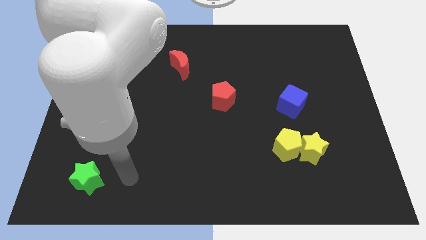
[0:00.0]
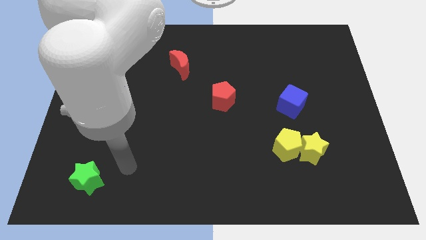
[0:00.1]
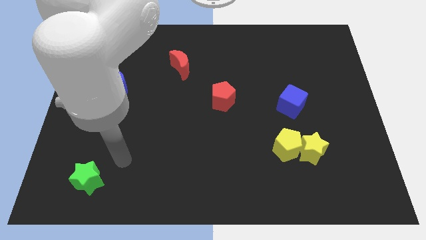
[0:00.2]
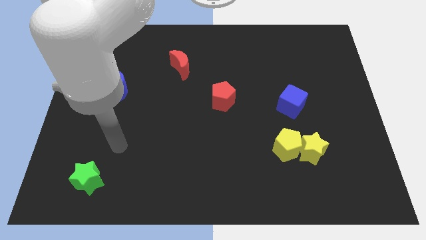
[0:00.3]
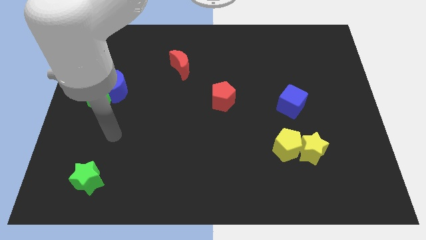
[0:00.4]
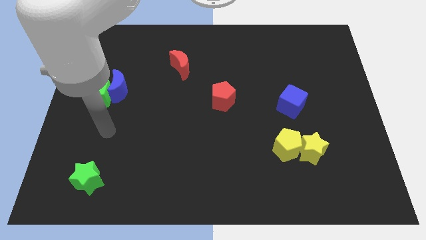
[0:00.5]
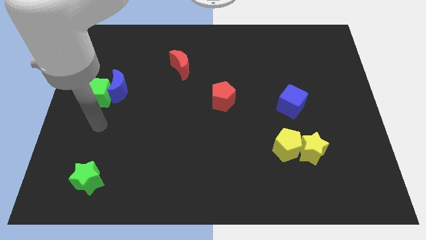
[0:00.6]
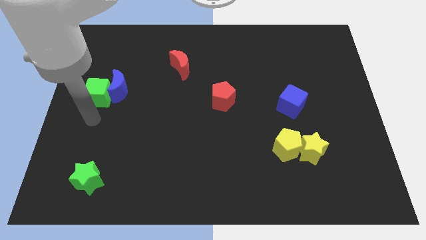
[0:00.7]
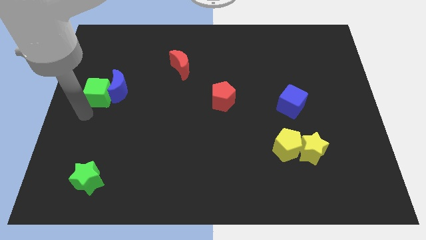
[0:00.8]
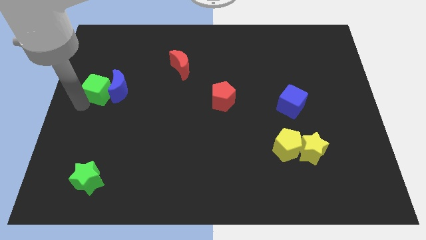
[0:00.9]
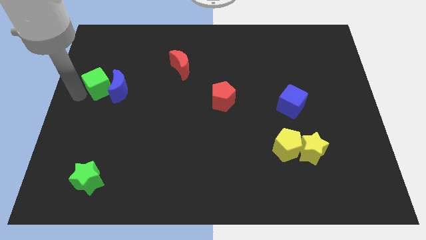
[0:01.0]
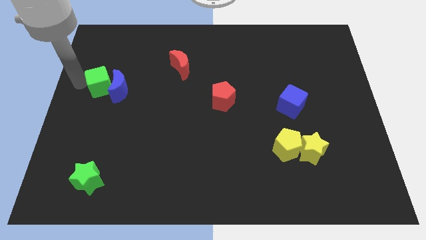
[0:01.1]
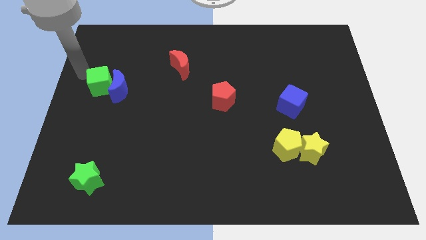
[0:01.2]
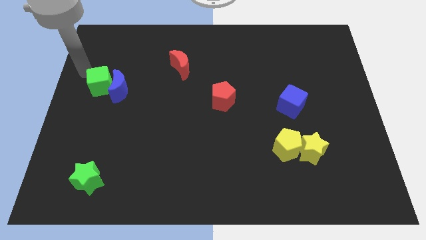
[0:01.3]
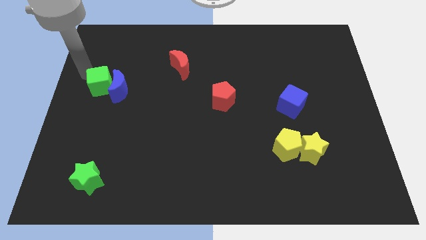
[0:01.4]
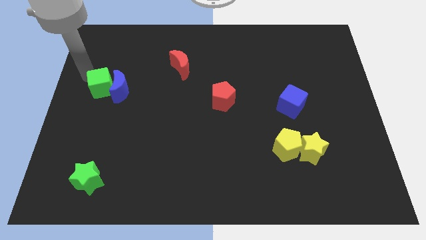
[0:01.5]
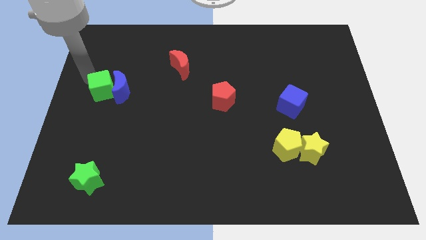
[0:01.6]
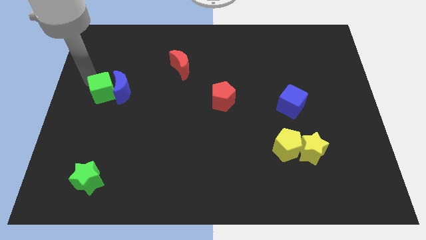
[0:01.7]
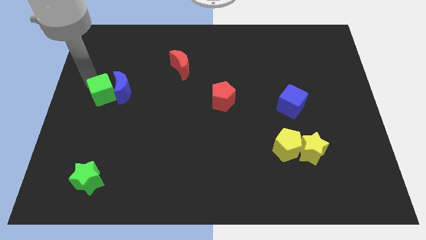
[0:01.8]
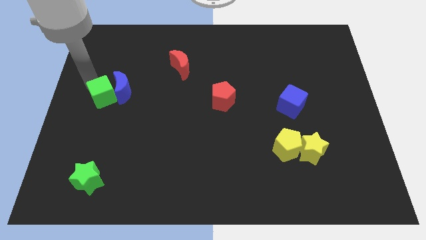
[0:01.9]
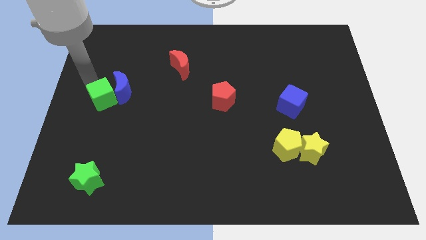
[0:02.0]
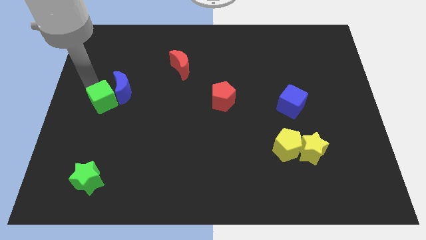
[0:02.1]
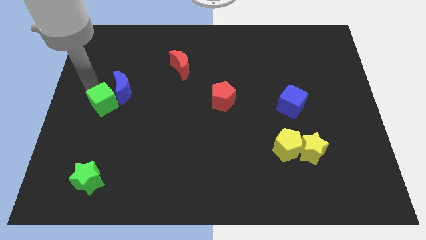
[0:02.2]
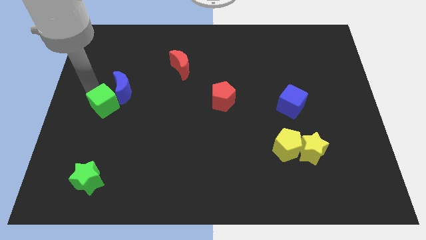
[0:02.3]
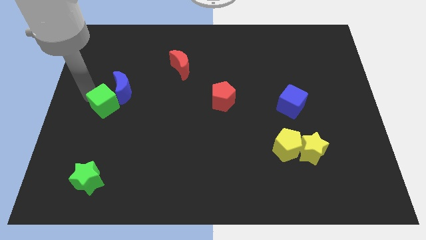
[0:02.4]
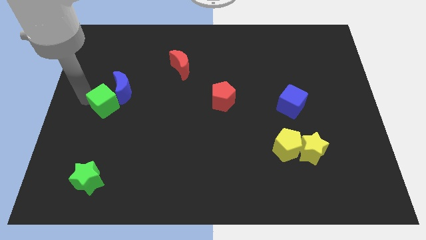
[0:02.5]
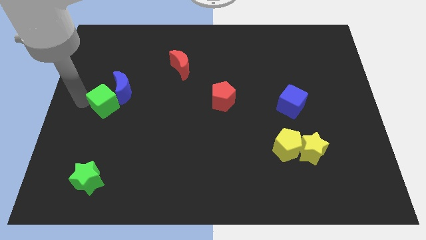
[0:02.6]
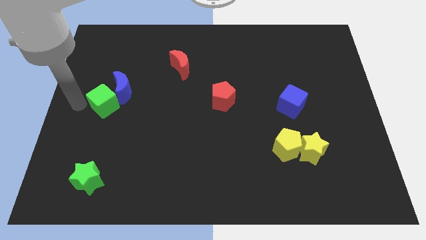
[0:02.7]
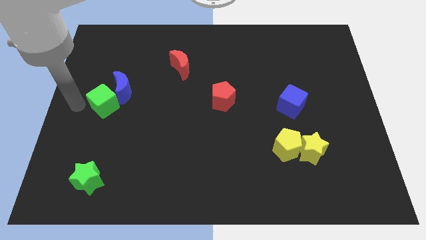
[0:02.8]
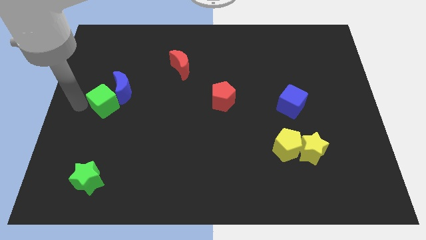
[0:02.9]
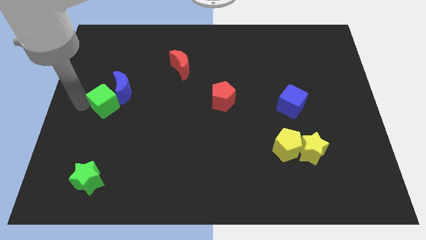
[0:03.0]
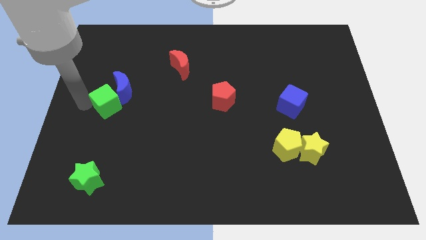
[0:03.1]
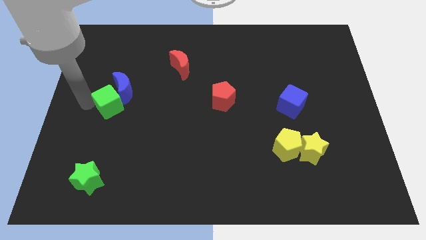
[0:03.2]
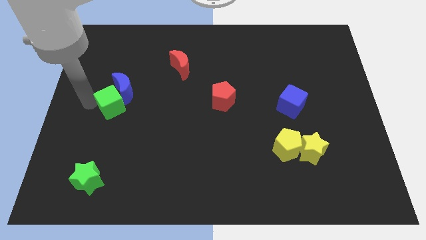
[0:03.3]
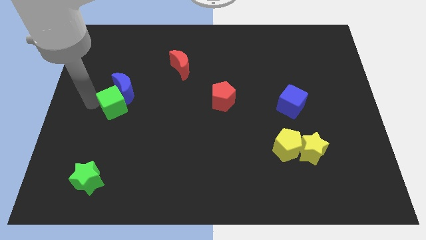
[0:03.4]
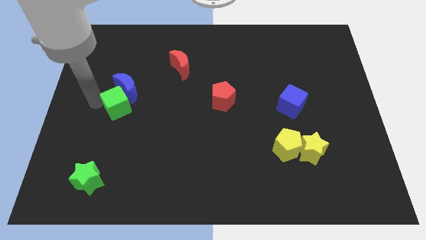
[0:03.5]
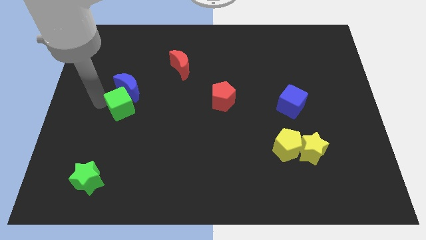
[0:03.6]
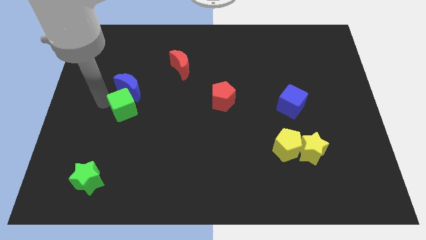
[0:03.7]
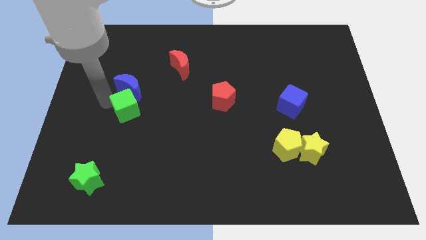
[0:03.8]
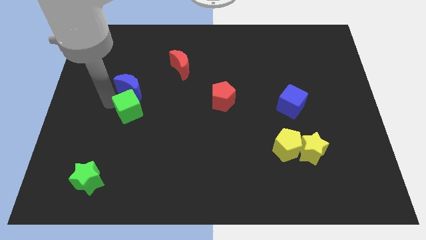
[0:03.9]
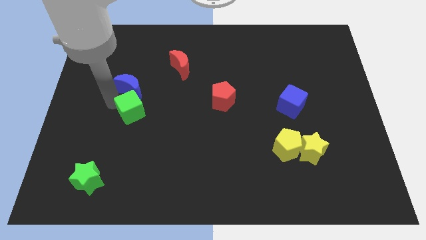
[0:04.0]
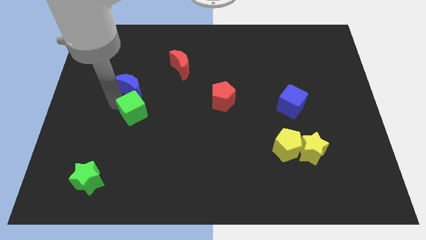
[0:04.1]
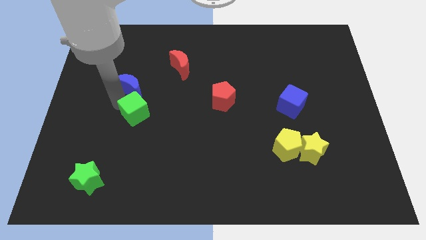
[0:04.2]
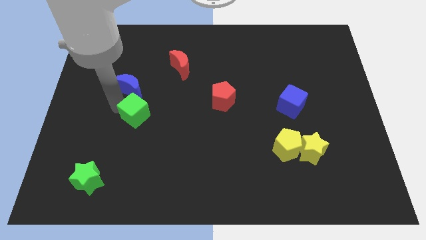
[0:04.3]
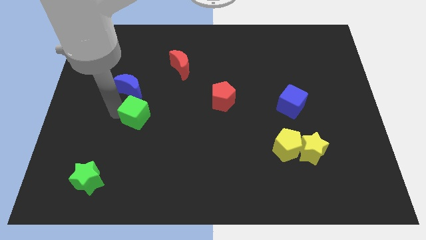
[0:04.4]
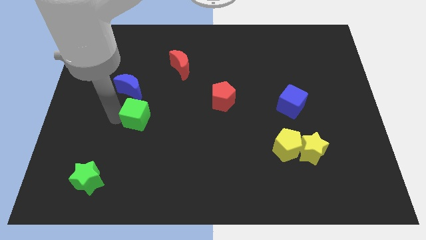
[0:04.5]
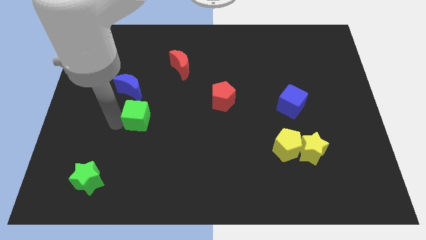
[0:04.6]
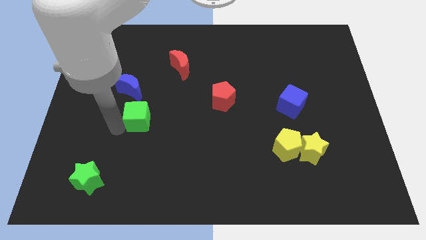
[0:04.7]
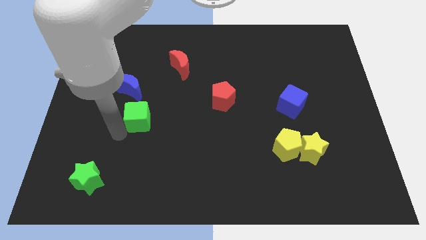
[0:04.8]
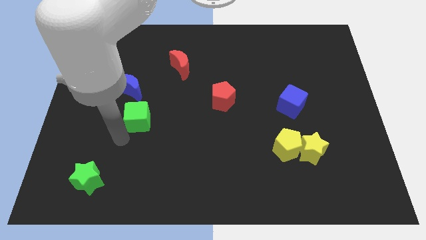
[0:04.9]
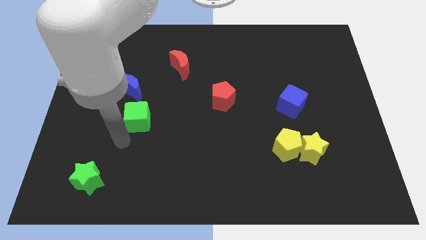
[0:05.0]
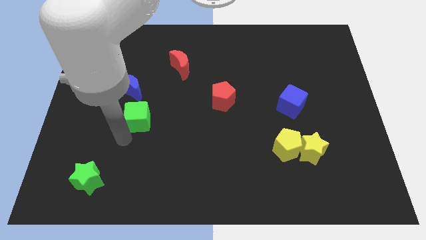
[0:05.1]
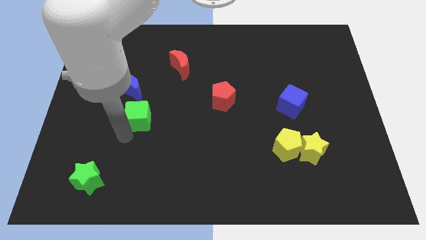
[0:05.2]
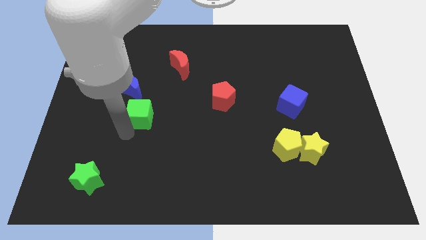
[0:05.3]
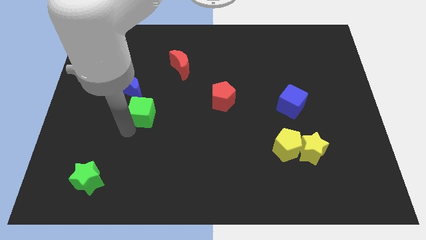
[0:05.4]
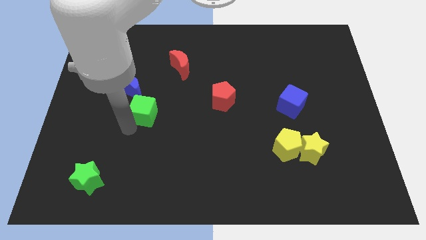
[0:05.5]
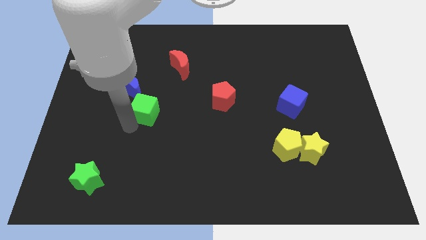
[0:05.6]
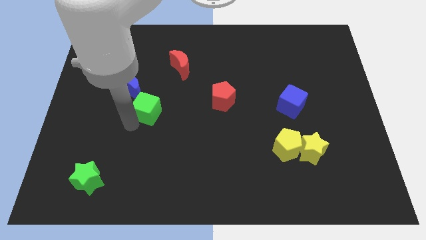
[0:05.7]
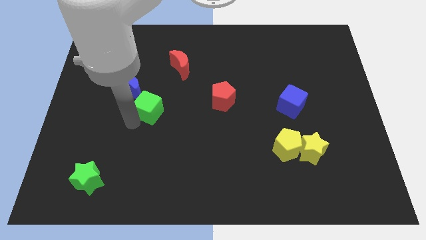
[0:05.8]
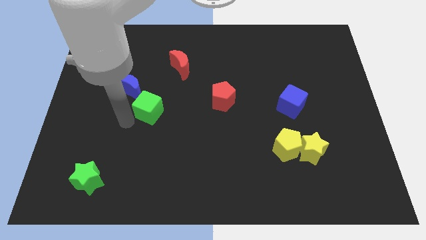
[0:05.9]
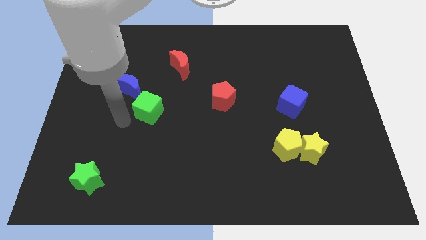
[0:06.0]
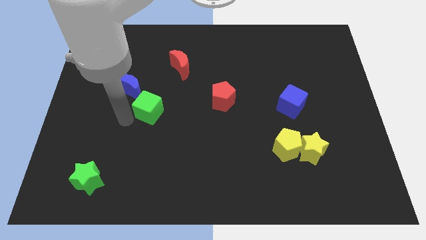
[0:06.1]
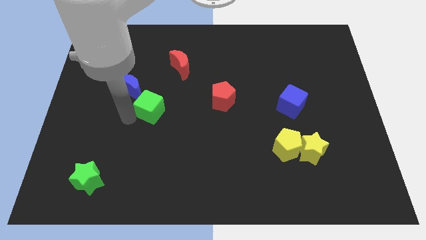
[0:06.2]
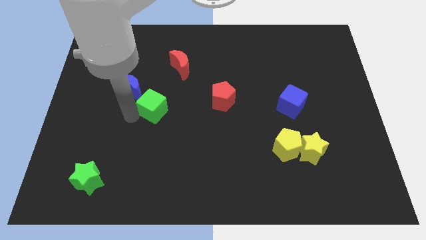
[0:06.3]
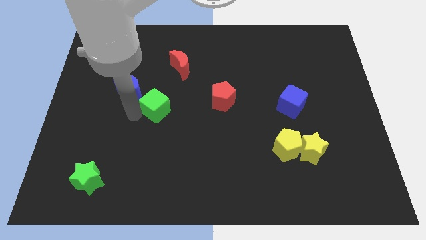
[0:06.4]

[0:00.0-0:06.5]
put the green cube to the left side of the red pentagon

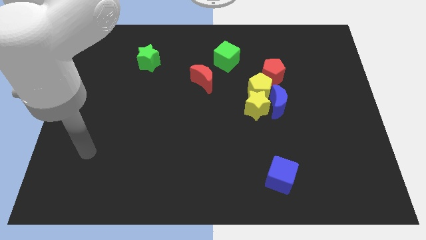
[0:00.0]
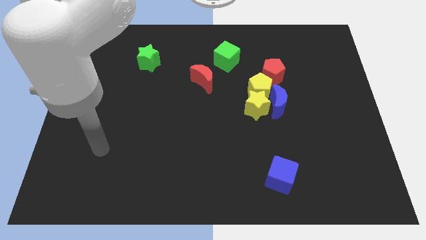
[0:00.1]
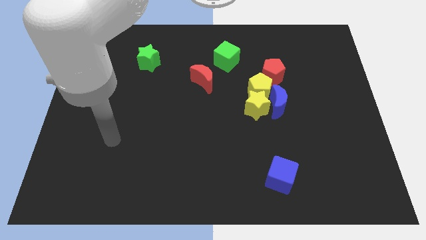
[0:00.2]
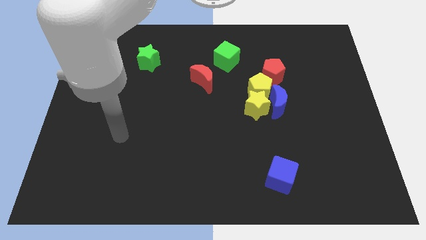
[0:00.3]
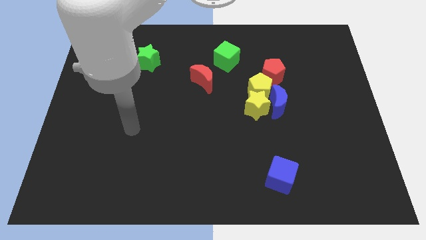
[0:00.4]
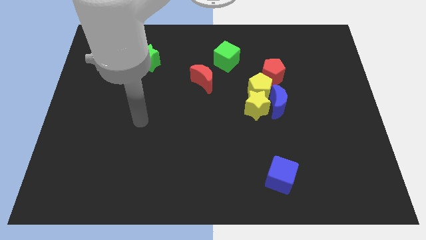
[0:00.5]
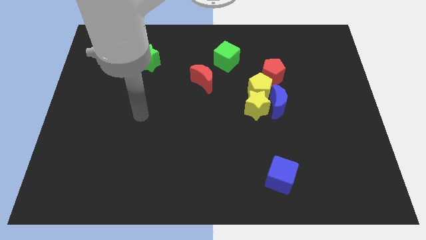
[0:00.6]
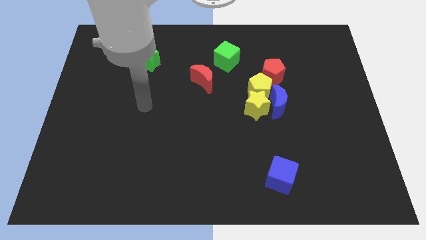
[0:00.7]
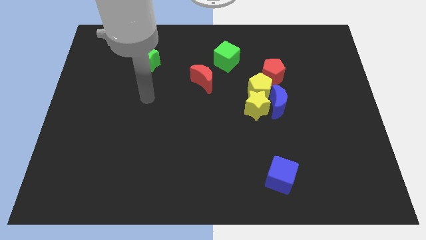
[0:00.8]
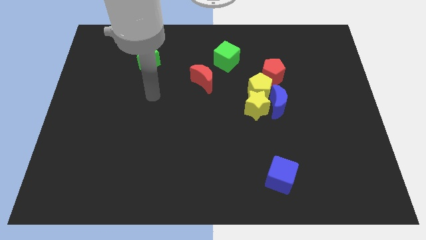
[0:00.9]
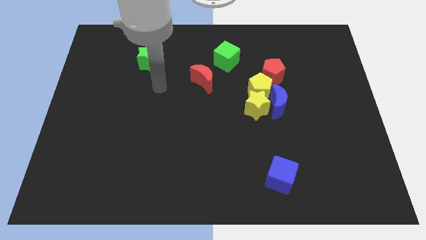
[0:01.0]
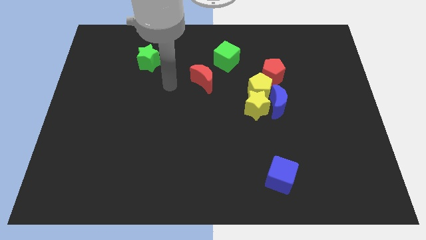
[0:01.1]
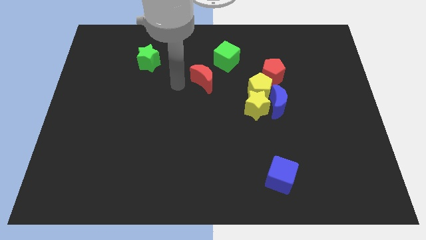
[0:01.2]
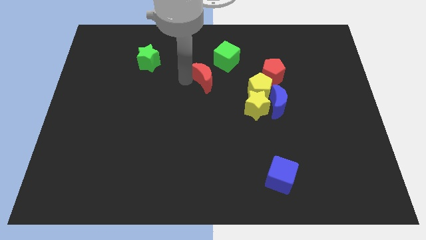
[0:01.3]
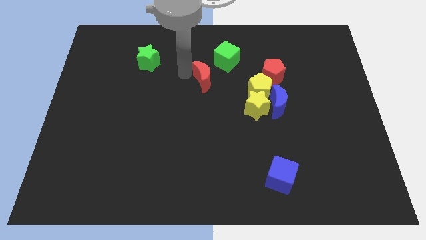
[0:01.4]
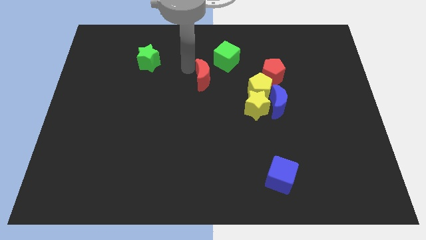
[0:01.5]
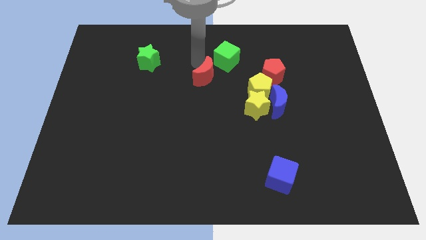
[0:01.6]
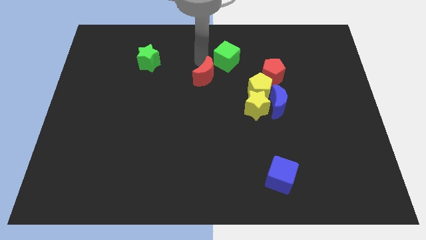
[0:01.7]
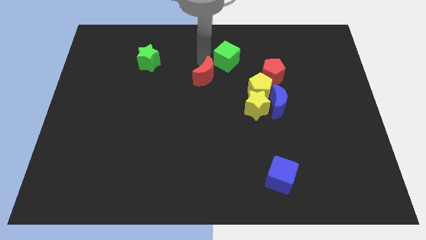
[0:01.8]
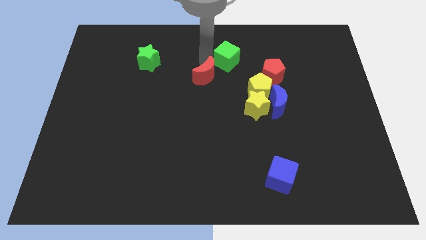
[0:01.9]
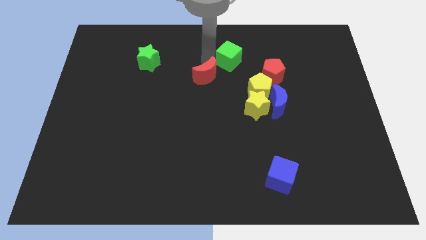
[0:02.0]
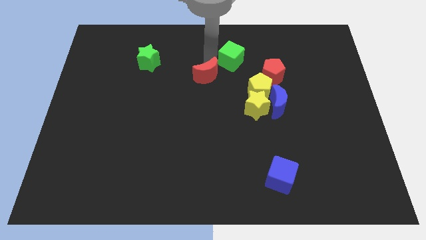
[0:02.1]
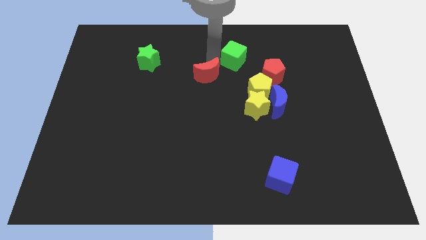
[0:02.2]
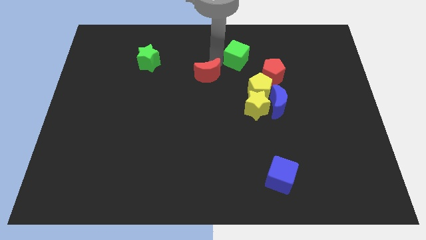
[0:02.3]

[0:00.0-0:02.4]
move the green cube to the top side of the yellow pentagon
